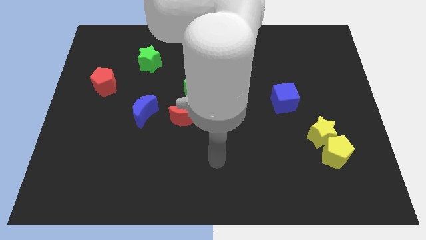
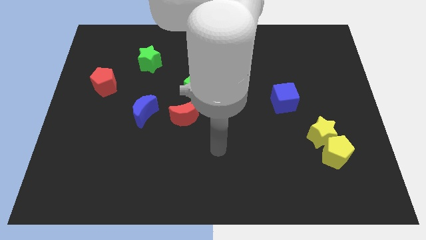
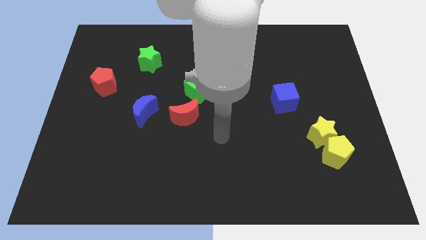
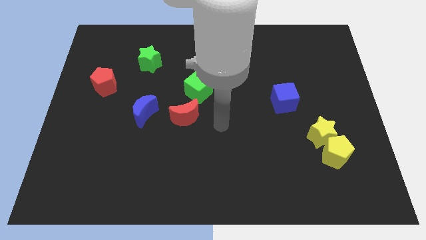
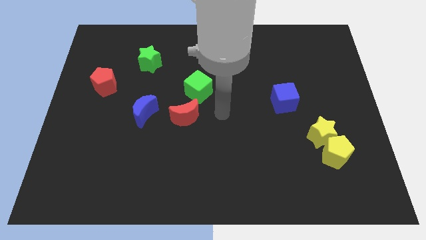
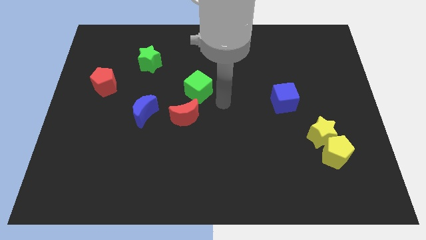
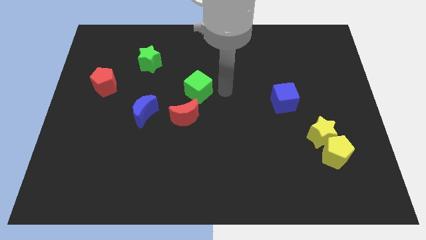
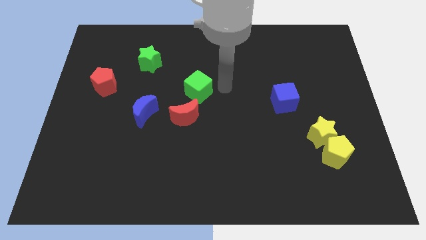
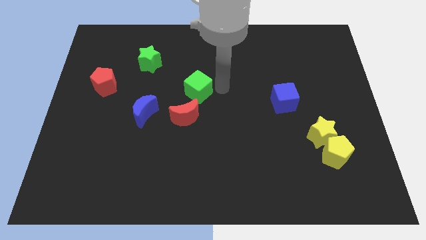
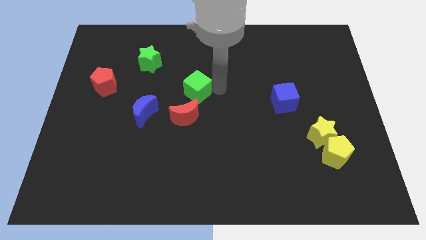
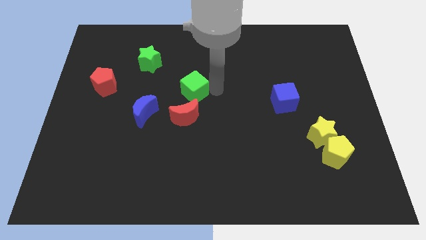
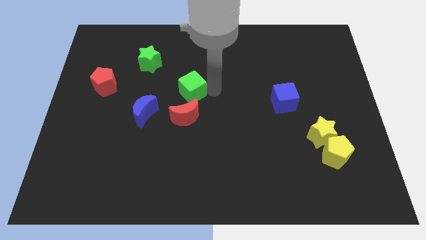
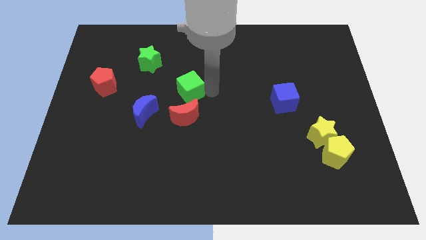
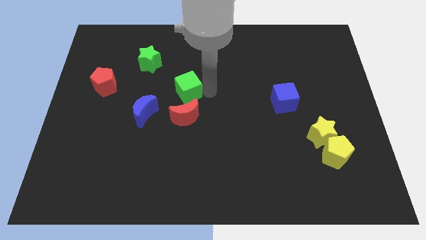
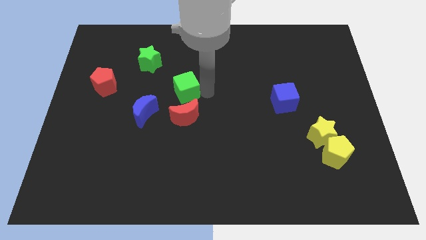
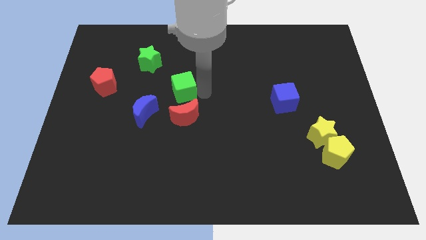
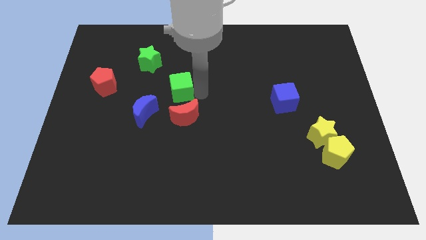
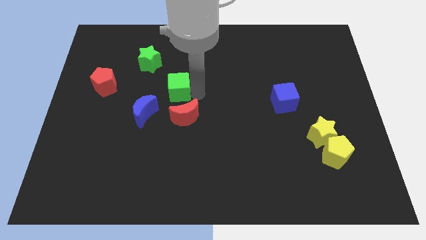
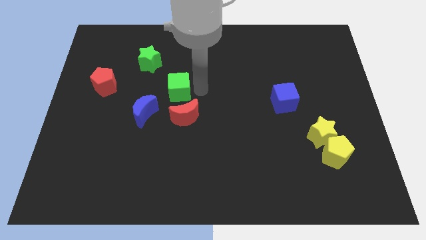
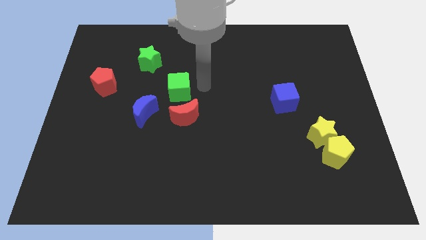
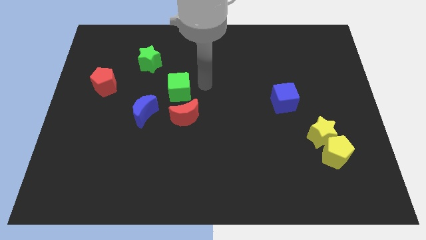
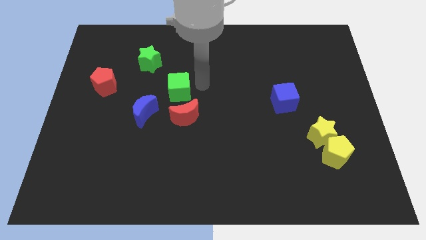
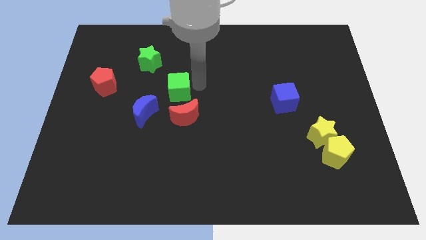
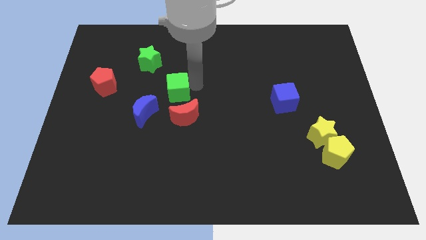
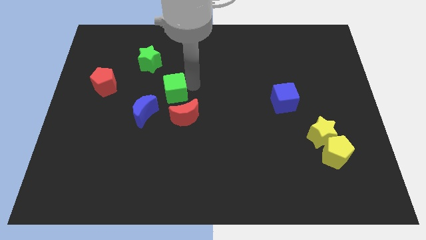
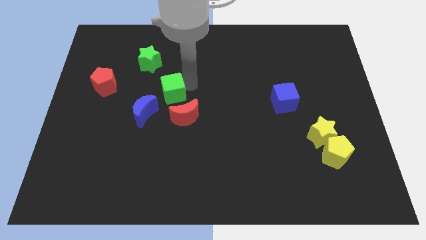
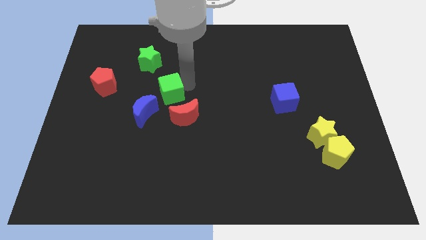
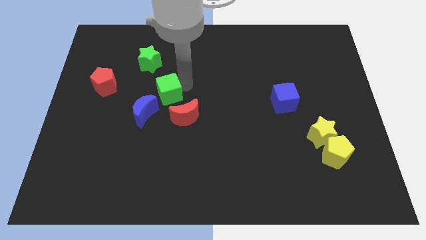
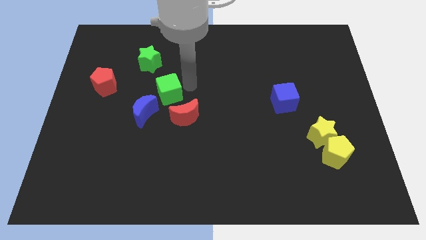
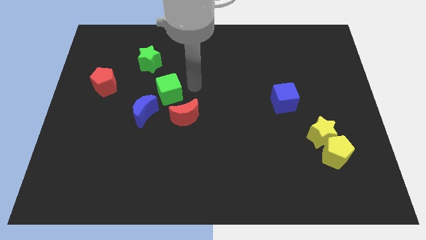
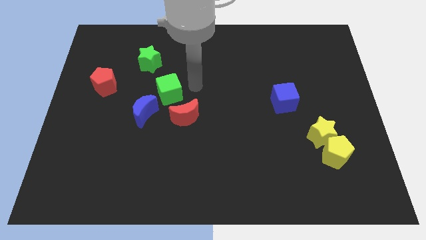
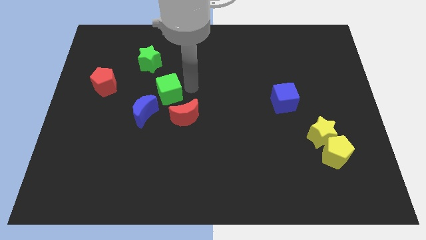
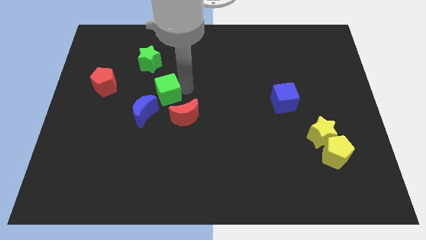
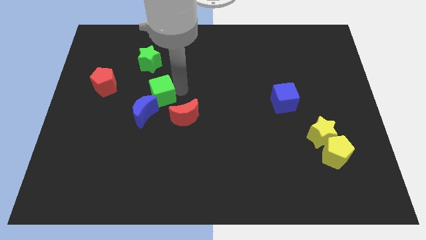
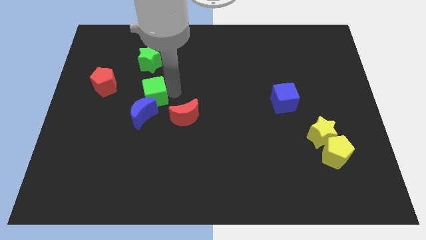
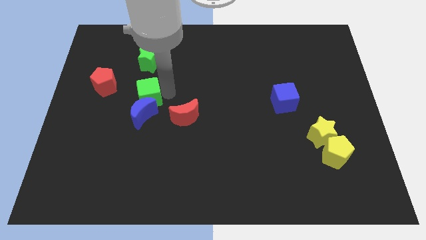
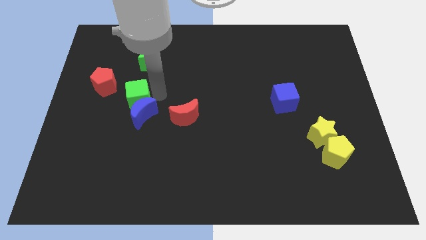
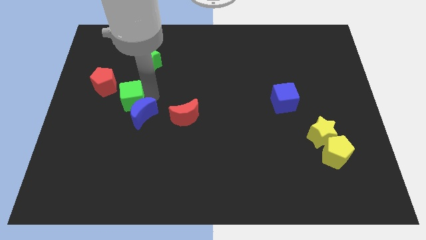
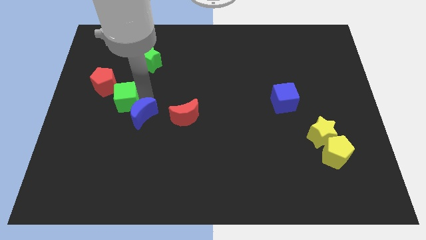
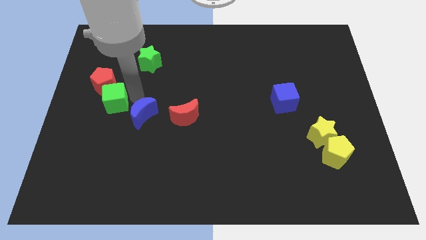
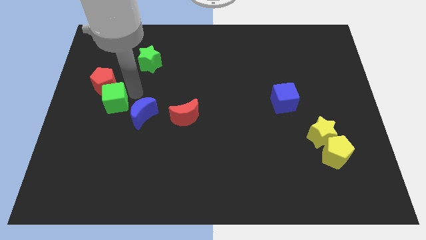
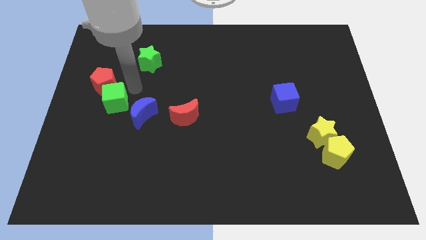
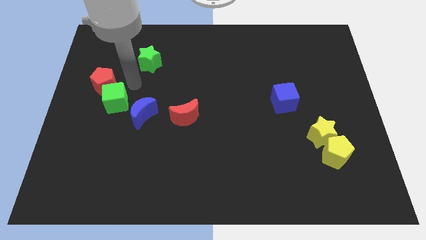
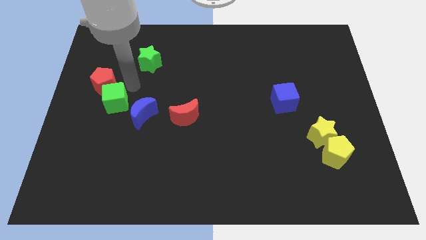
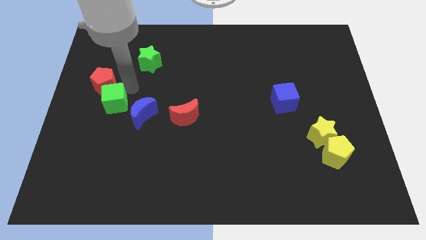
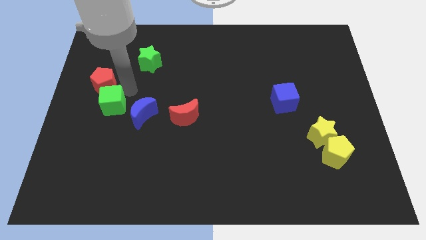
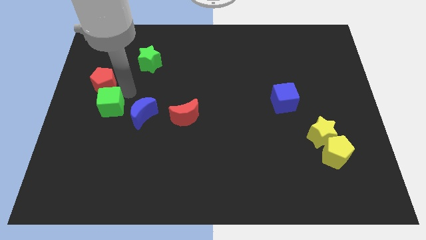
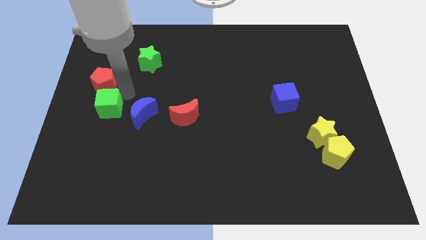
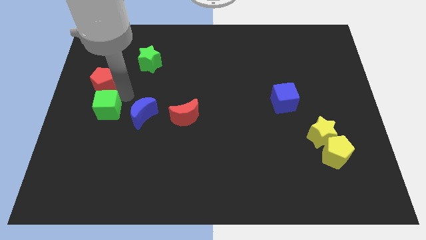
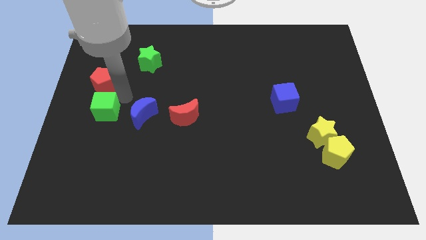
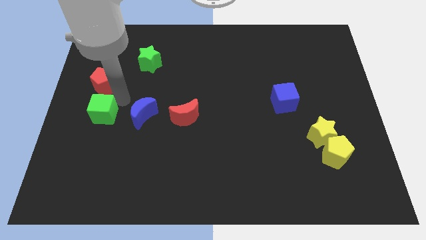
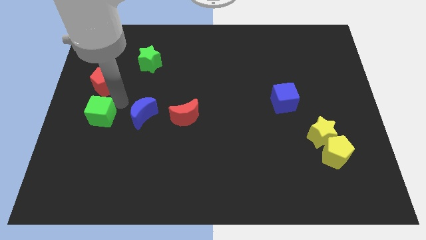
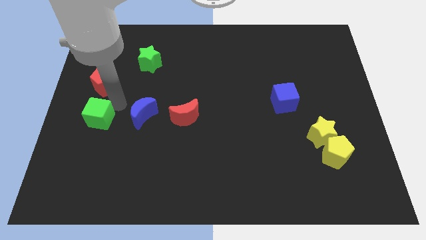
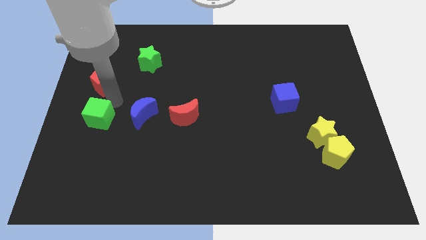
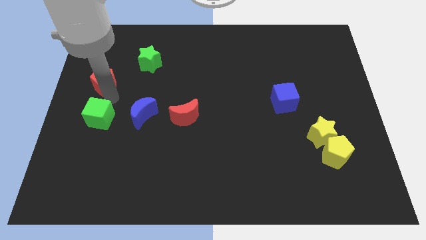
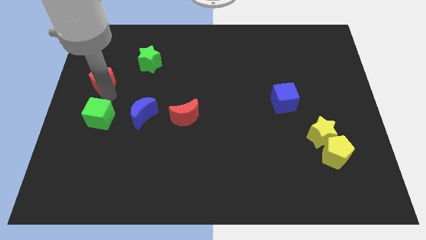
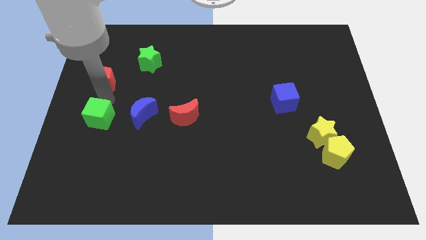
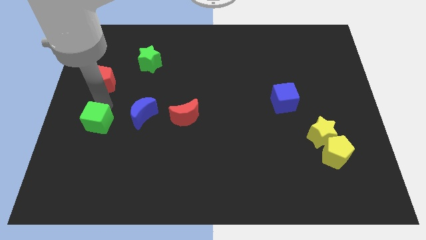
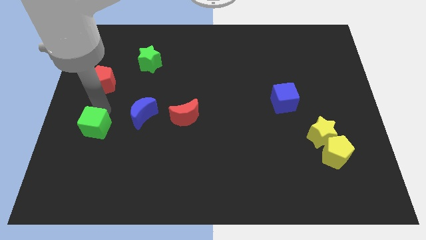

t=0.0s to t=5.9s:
move the green cube diagonally down and left

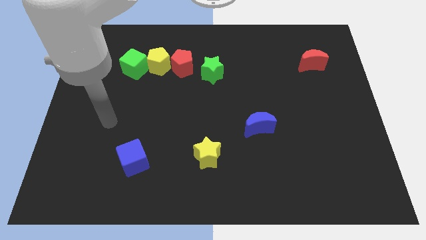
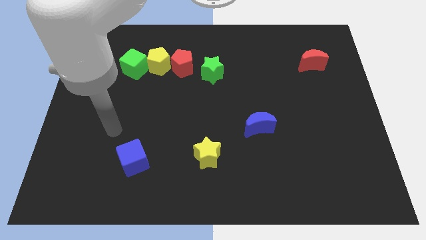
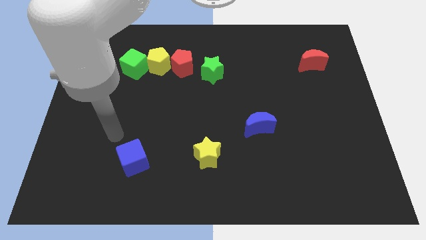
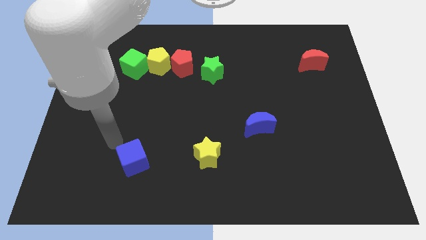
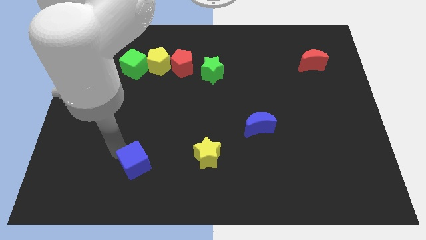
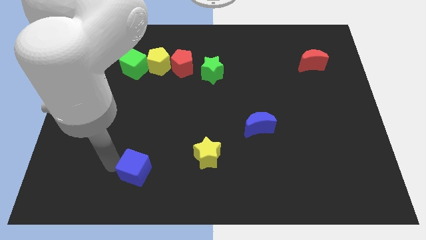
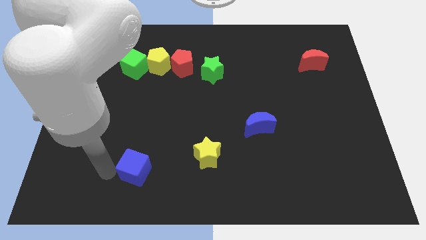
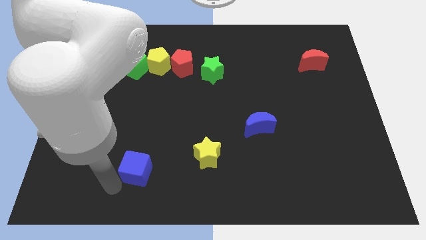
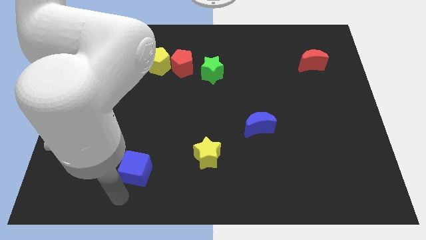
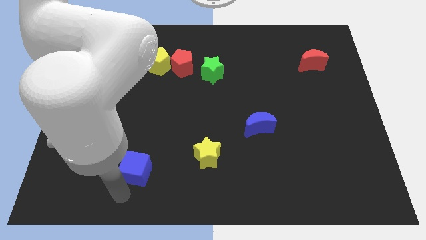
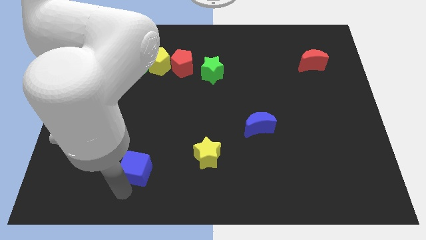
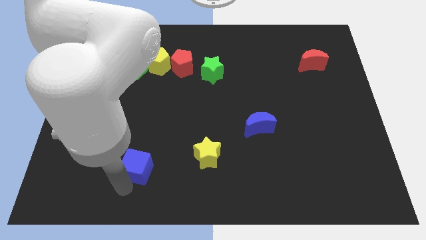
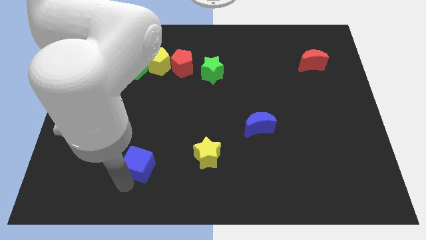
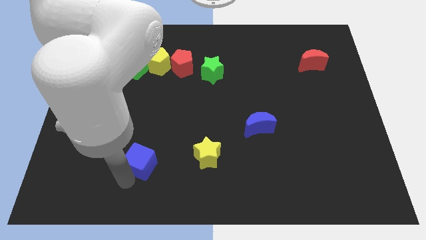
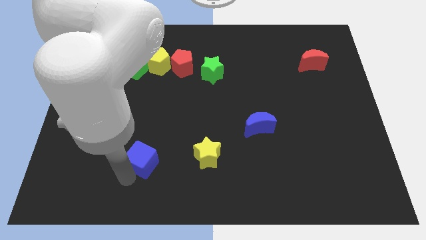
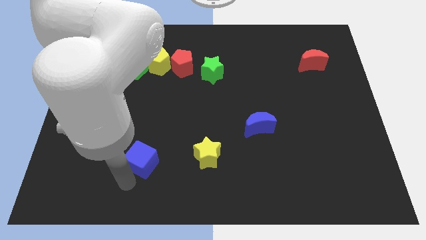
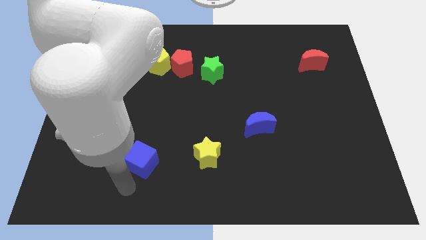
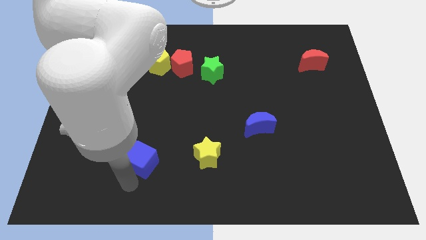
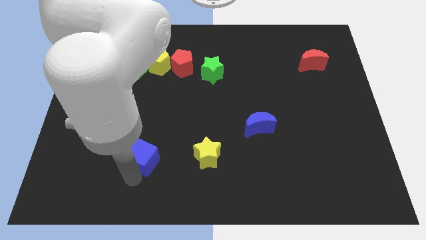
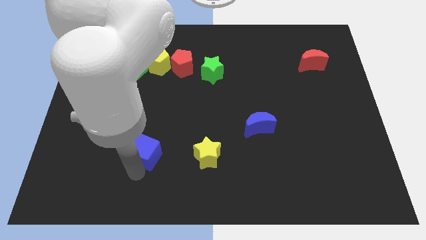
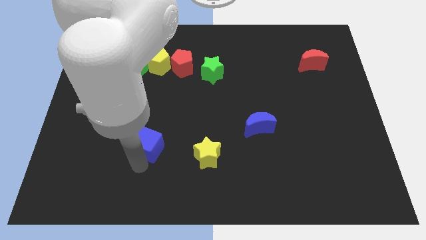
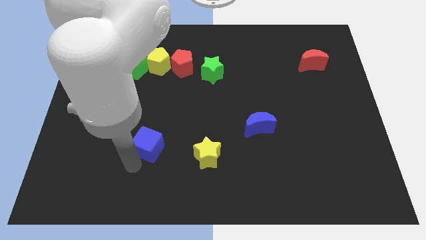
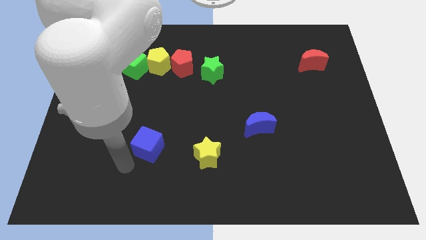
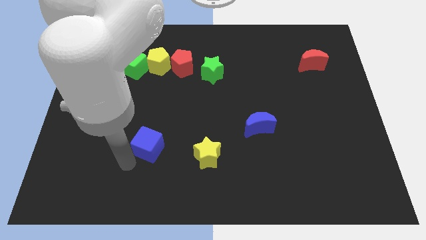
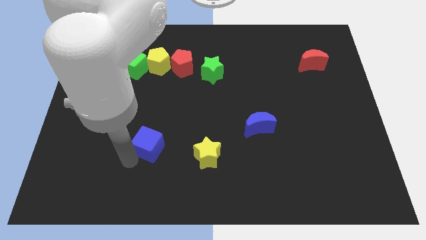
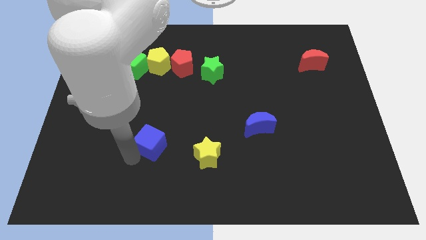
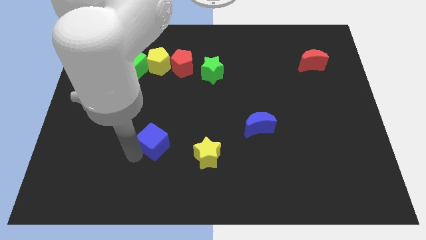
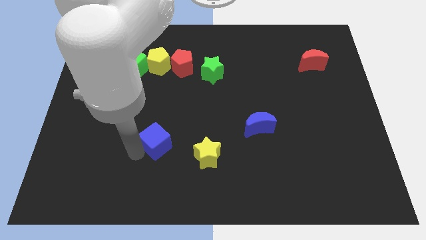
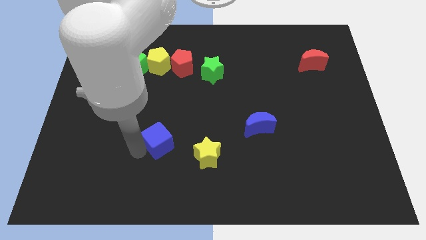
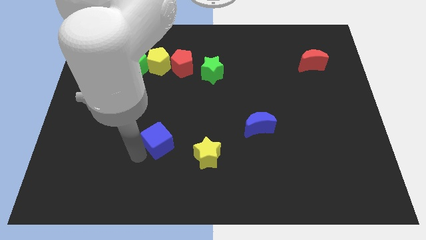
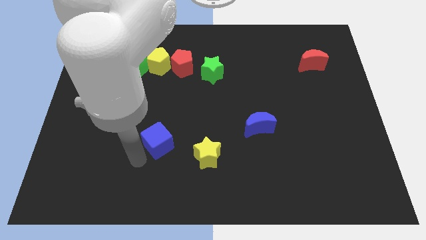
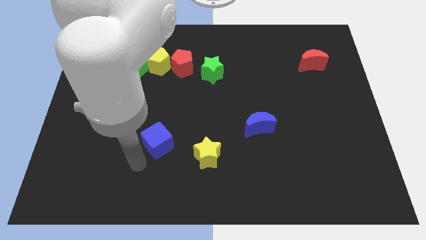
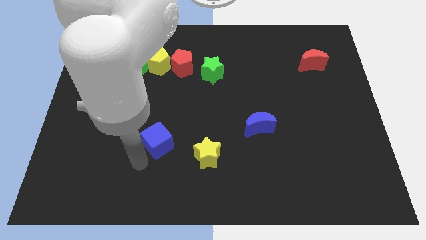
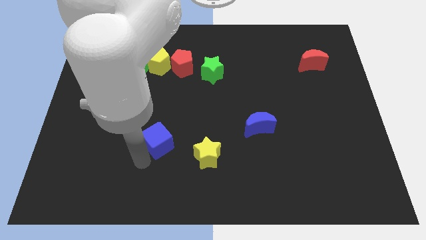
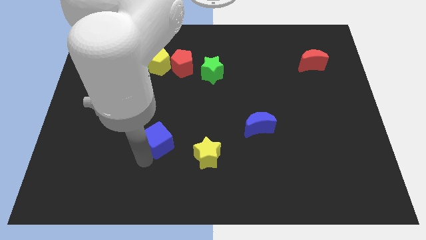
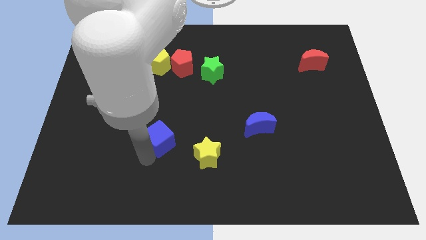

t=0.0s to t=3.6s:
slightly slide the blue cube upwards and then right
